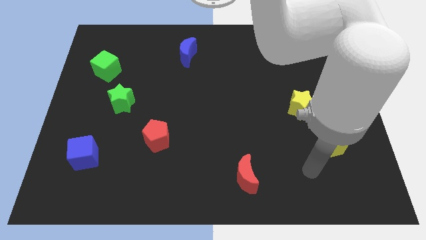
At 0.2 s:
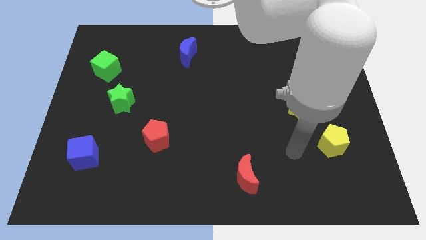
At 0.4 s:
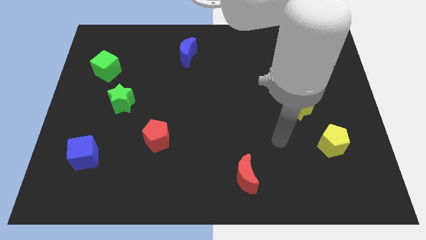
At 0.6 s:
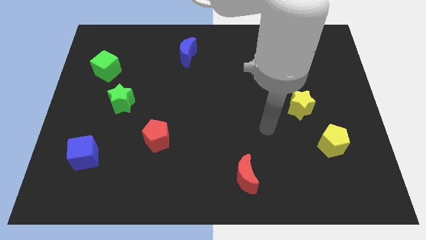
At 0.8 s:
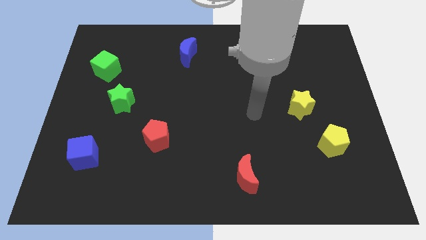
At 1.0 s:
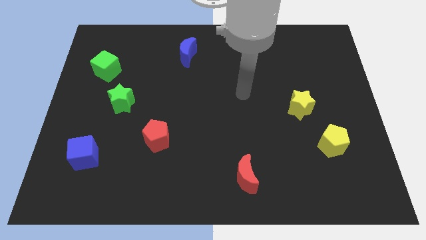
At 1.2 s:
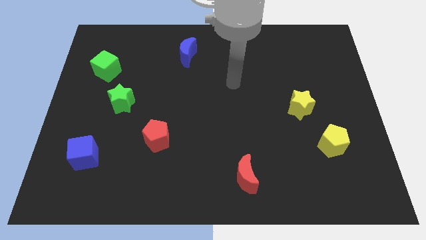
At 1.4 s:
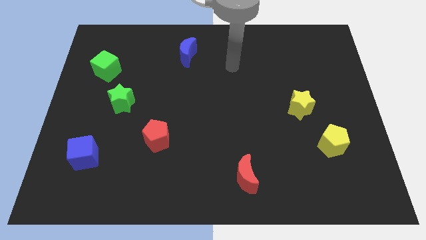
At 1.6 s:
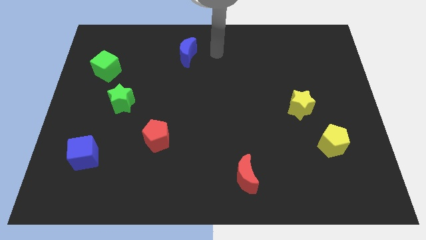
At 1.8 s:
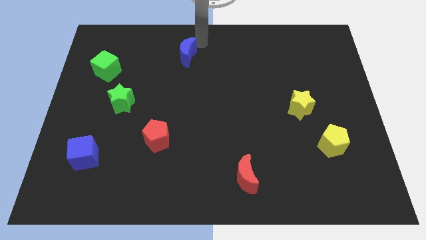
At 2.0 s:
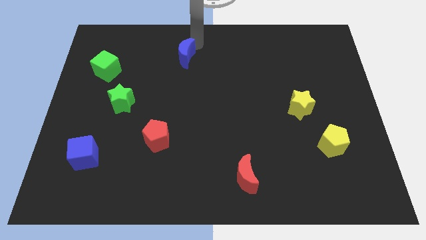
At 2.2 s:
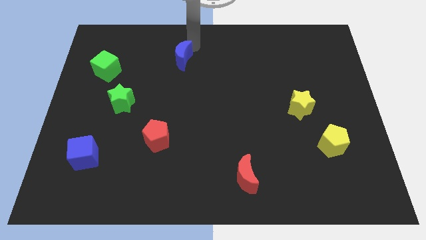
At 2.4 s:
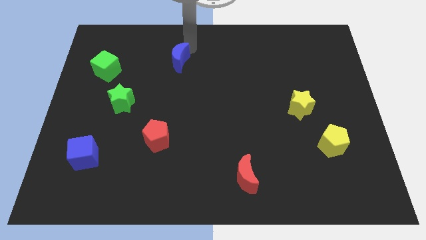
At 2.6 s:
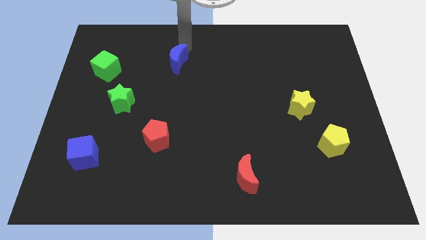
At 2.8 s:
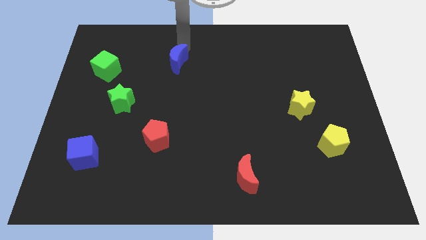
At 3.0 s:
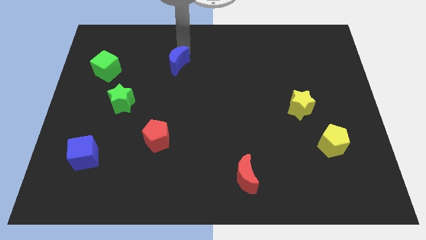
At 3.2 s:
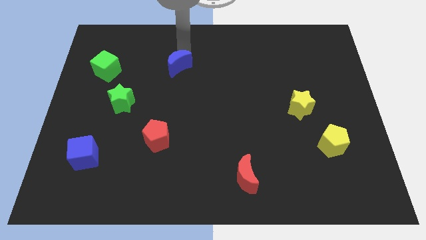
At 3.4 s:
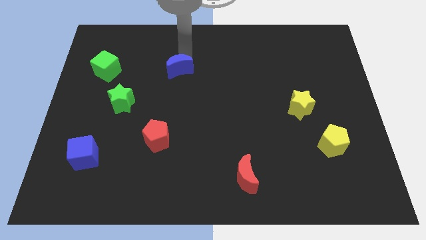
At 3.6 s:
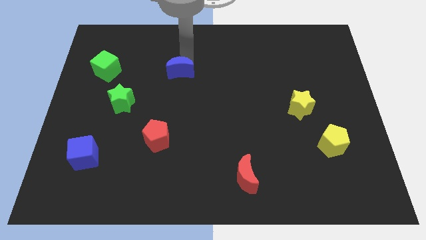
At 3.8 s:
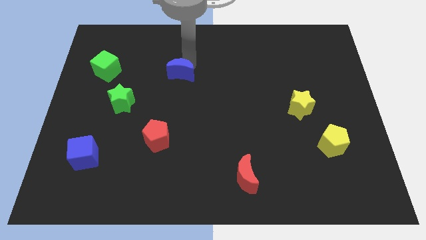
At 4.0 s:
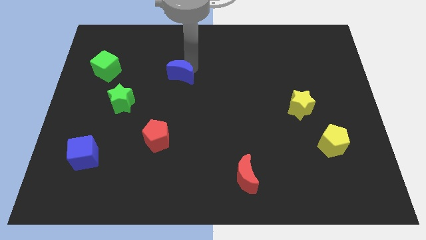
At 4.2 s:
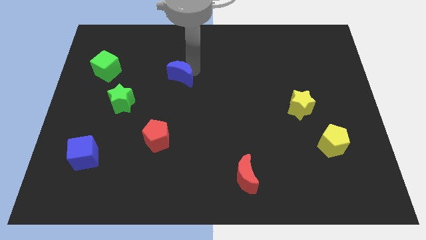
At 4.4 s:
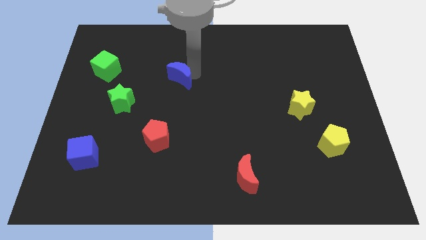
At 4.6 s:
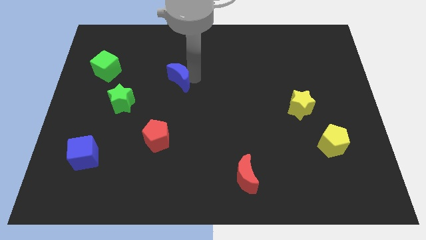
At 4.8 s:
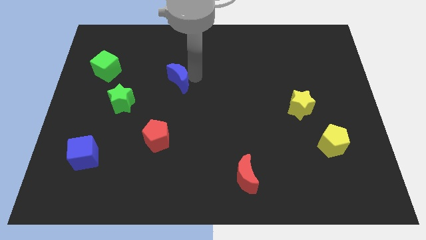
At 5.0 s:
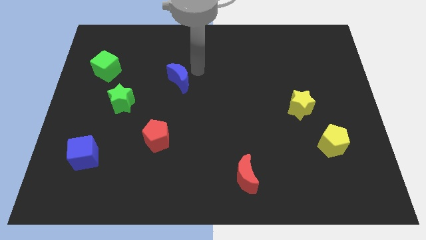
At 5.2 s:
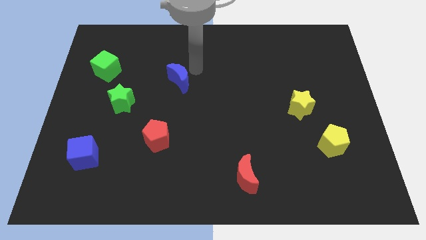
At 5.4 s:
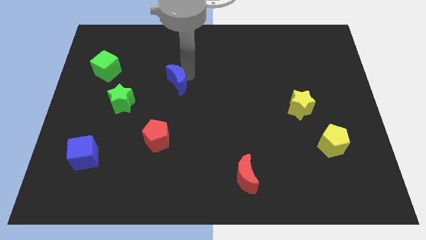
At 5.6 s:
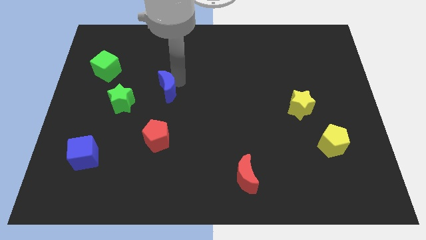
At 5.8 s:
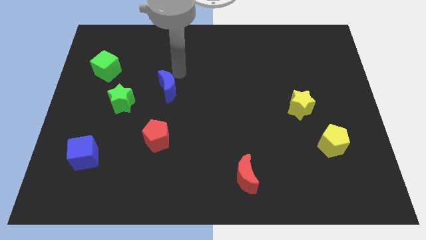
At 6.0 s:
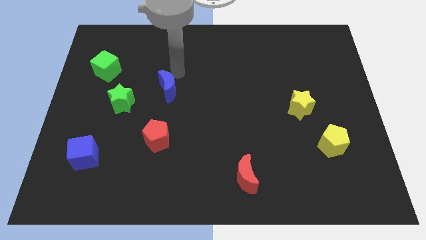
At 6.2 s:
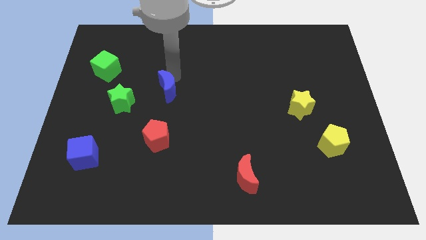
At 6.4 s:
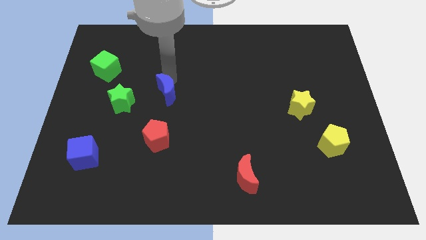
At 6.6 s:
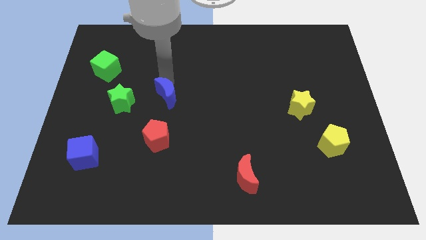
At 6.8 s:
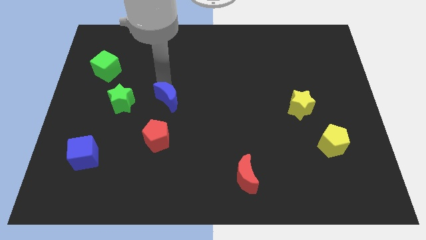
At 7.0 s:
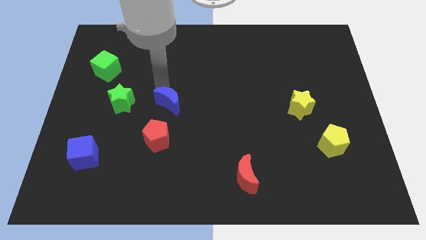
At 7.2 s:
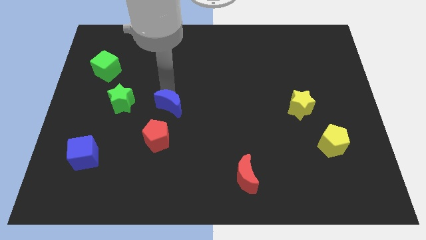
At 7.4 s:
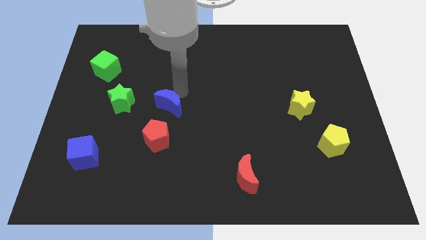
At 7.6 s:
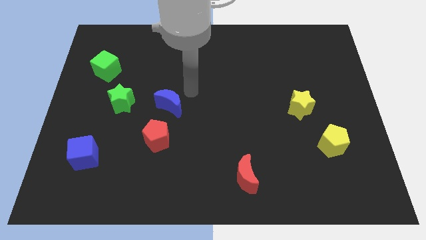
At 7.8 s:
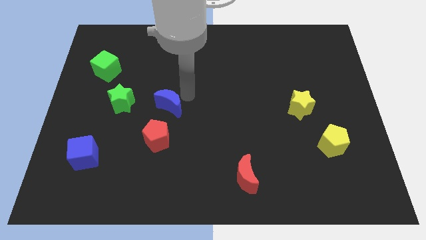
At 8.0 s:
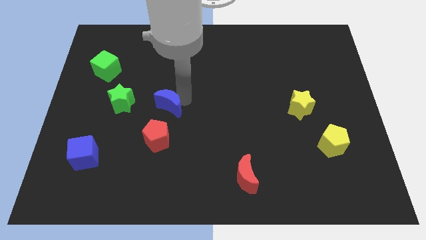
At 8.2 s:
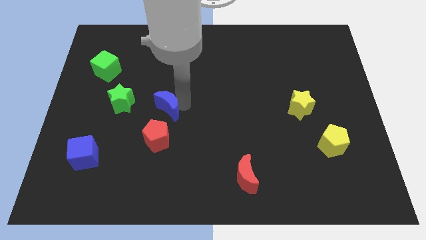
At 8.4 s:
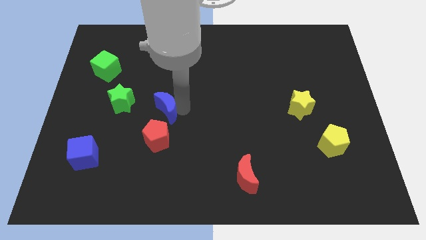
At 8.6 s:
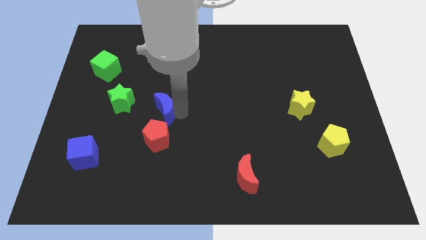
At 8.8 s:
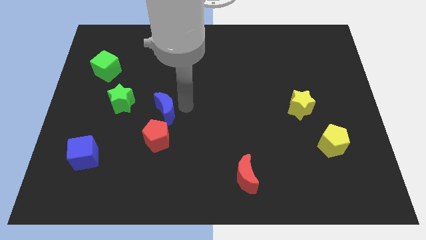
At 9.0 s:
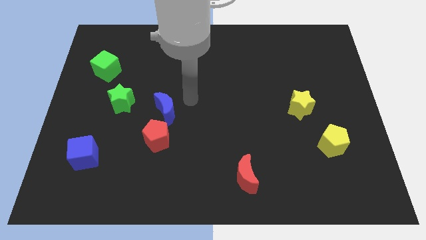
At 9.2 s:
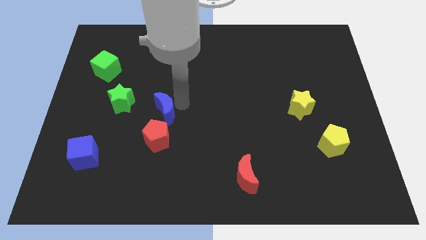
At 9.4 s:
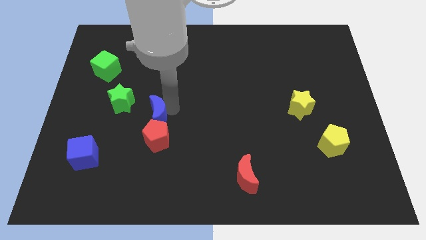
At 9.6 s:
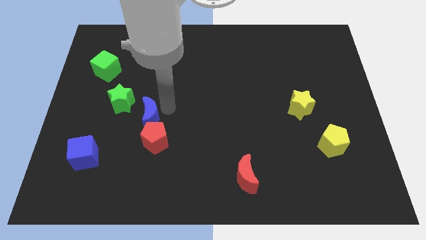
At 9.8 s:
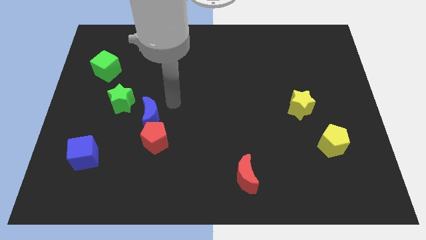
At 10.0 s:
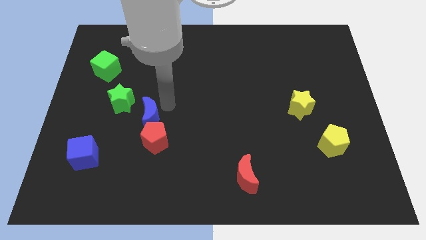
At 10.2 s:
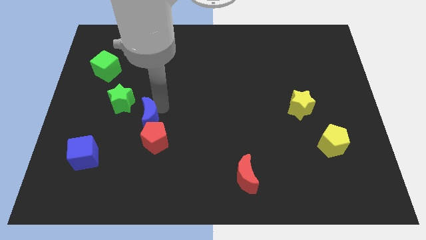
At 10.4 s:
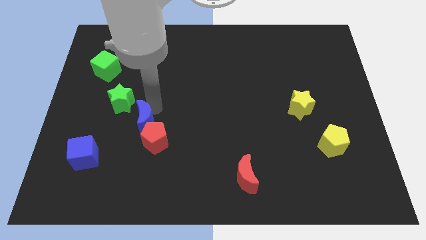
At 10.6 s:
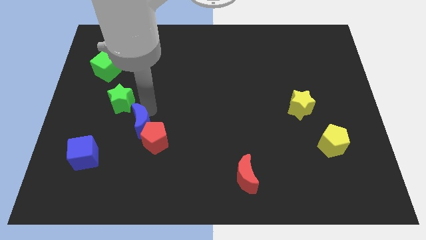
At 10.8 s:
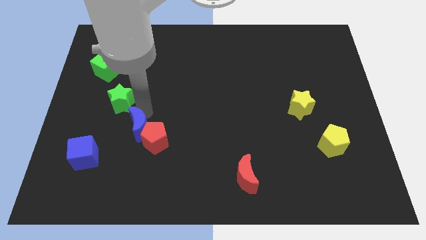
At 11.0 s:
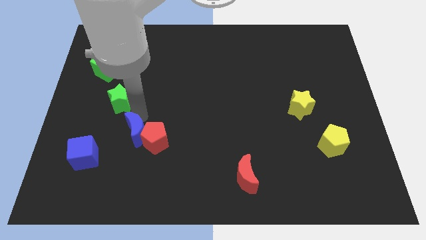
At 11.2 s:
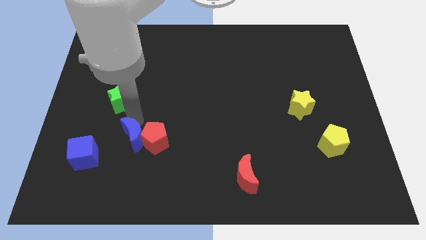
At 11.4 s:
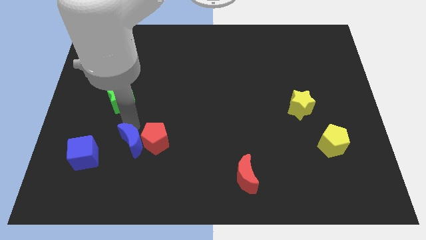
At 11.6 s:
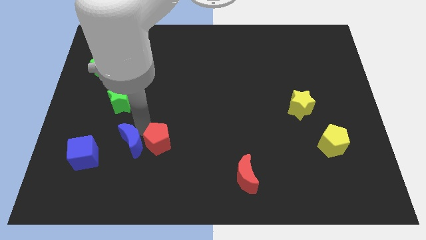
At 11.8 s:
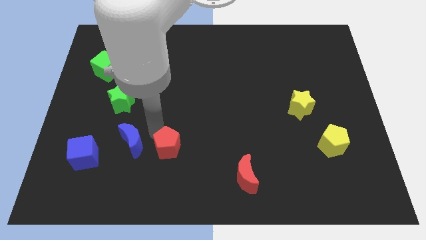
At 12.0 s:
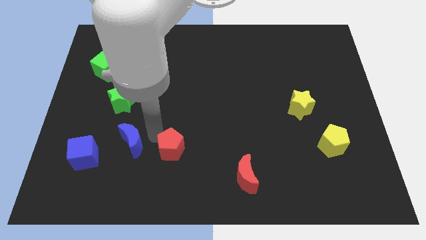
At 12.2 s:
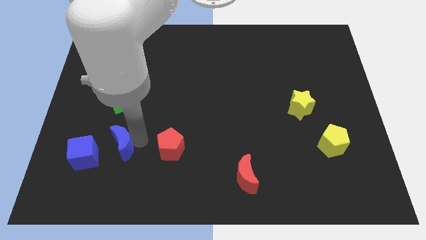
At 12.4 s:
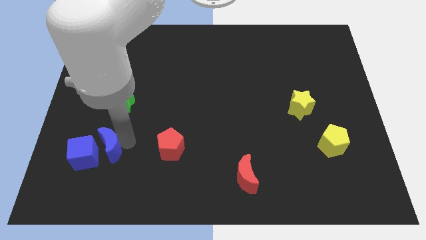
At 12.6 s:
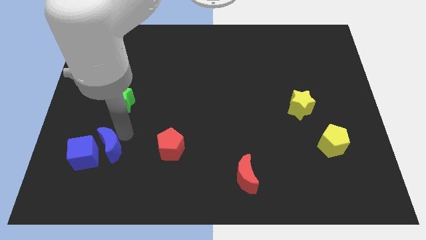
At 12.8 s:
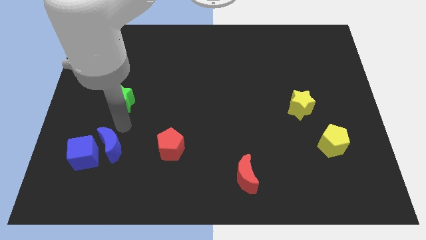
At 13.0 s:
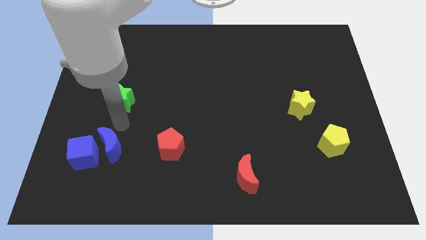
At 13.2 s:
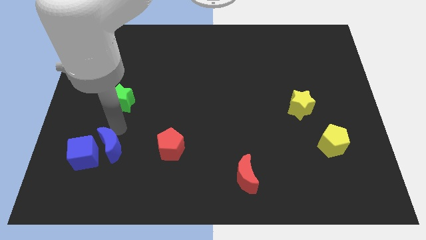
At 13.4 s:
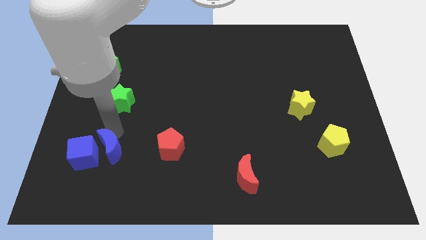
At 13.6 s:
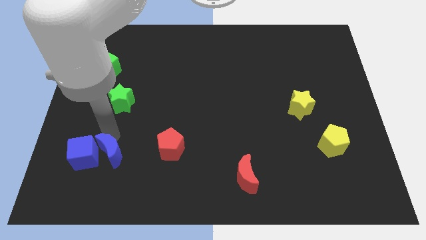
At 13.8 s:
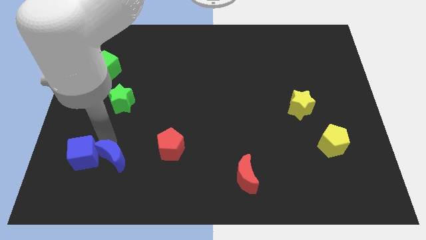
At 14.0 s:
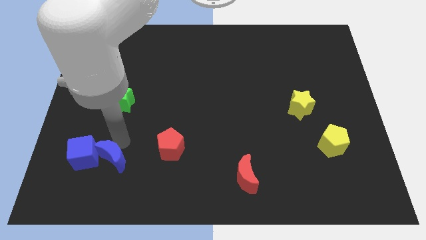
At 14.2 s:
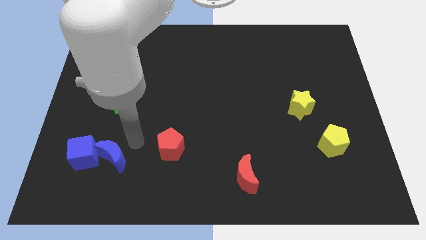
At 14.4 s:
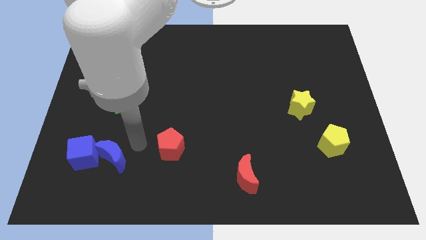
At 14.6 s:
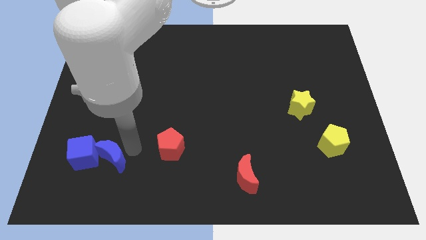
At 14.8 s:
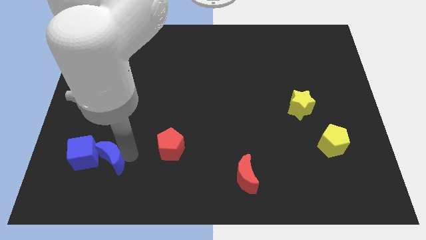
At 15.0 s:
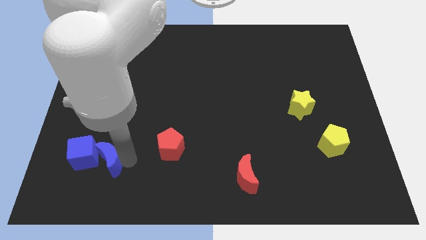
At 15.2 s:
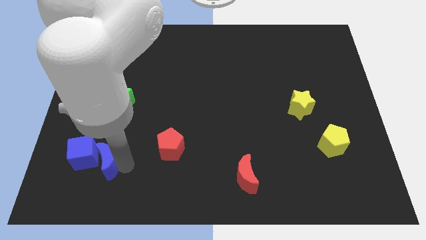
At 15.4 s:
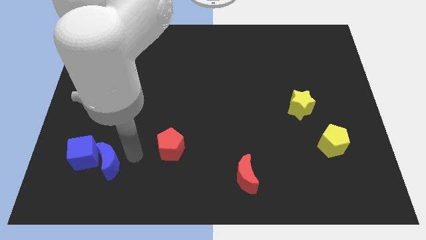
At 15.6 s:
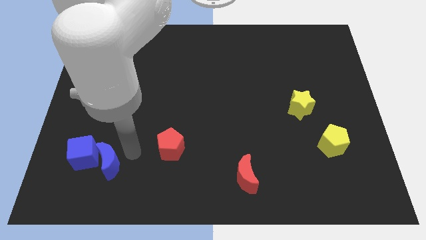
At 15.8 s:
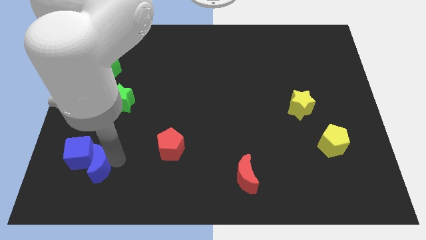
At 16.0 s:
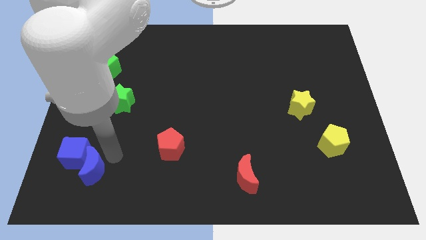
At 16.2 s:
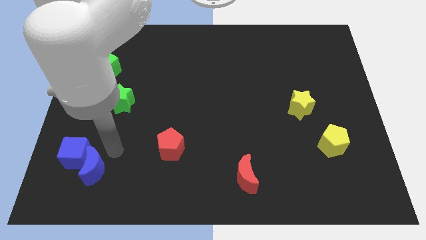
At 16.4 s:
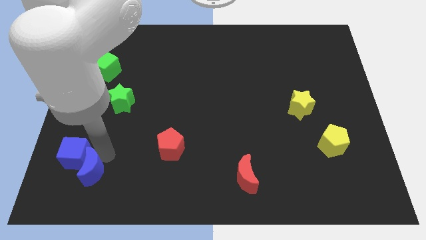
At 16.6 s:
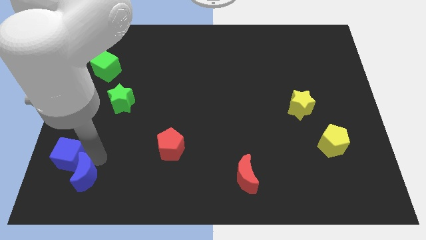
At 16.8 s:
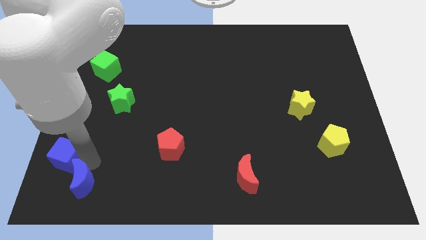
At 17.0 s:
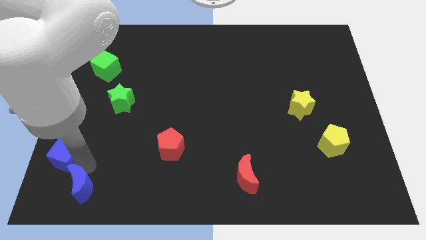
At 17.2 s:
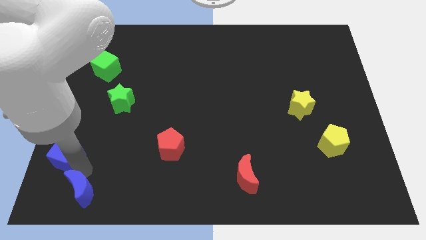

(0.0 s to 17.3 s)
push the blue moon to the lower left corner
